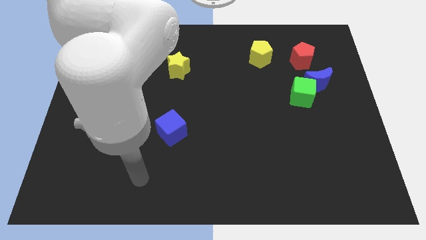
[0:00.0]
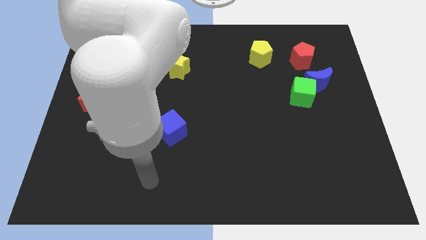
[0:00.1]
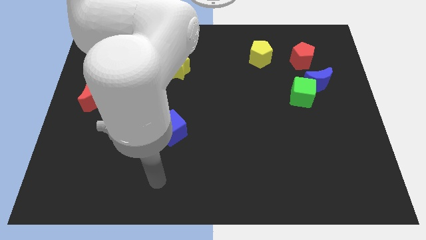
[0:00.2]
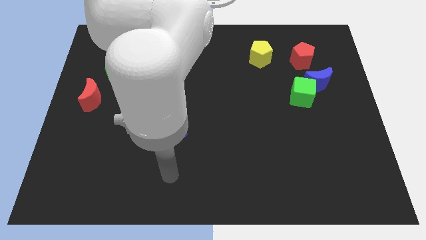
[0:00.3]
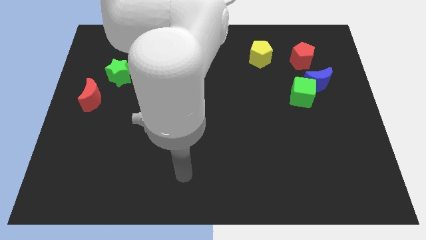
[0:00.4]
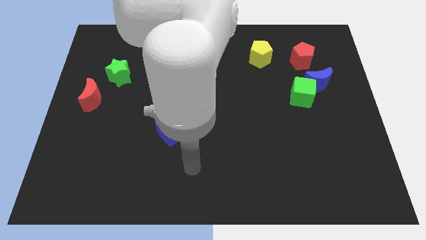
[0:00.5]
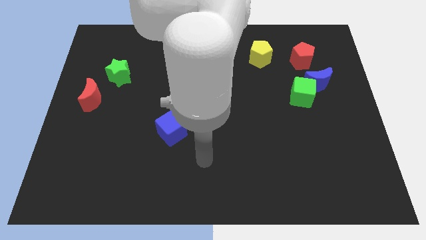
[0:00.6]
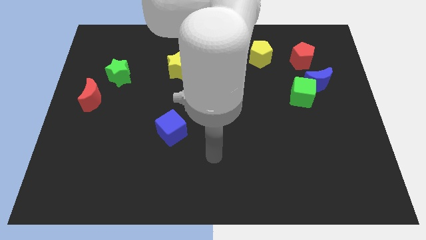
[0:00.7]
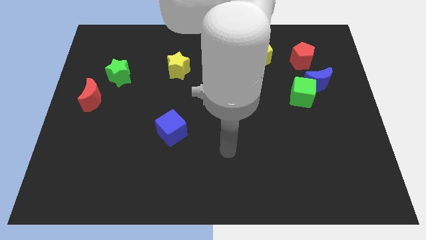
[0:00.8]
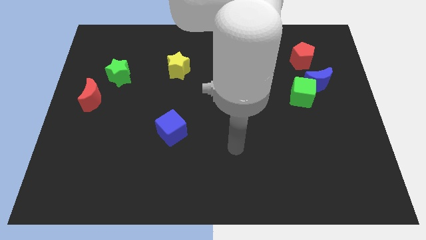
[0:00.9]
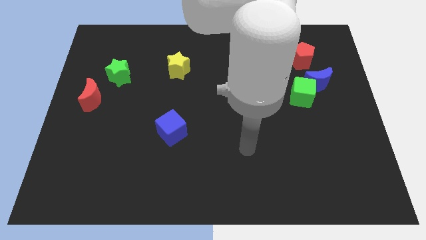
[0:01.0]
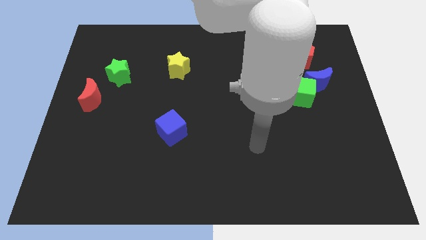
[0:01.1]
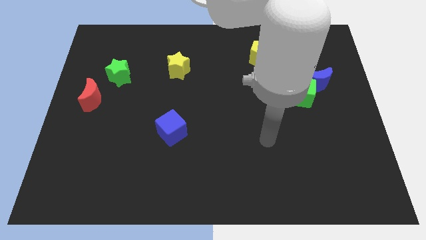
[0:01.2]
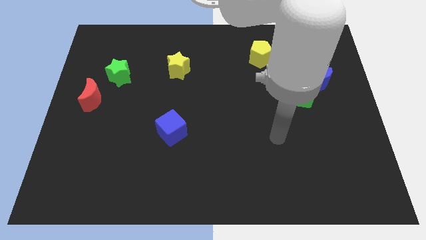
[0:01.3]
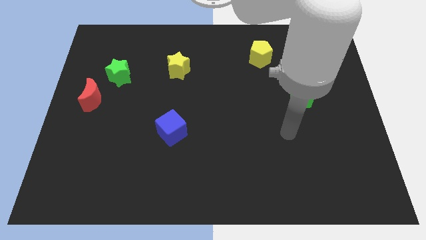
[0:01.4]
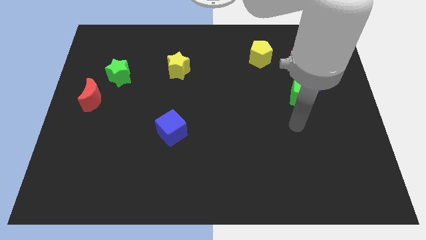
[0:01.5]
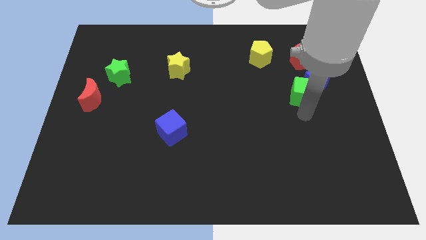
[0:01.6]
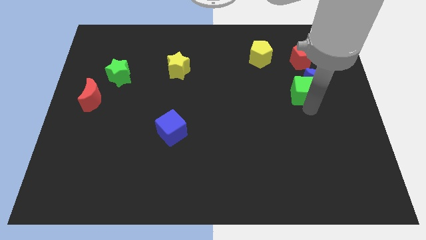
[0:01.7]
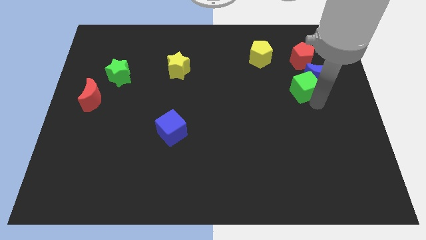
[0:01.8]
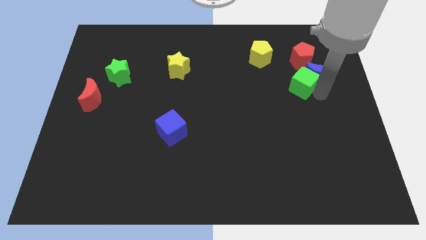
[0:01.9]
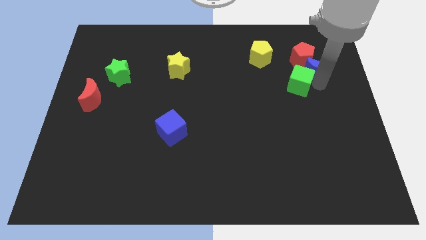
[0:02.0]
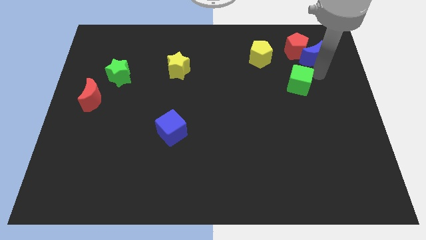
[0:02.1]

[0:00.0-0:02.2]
pull the green cube apart from the blue moon

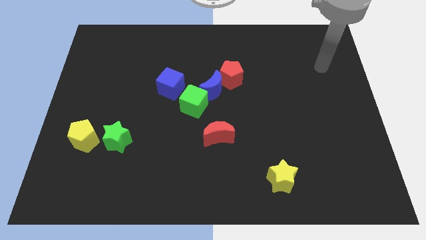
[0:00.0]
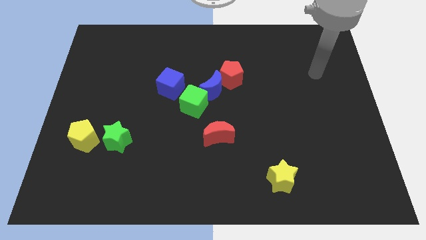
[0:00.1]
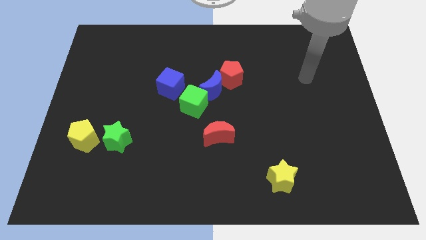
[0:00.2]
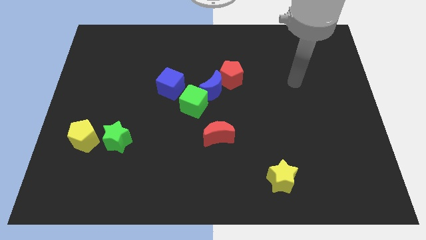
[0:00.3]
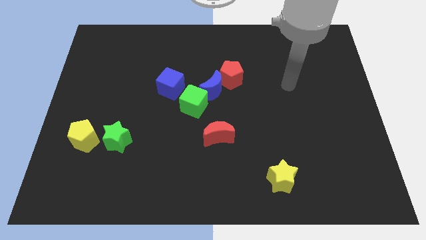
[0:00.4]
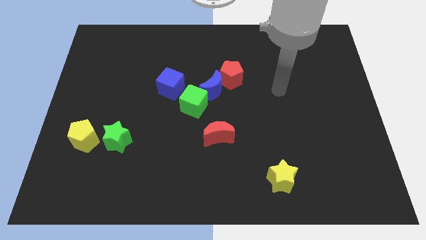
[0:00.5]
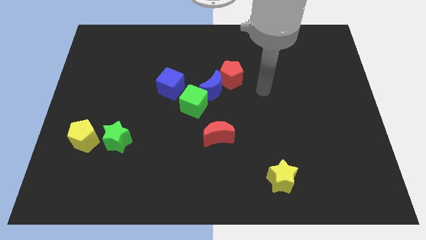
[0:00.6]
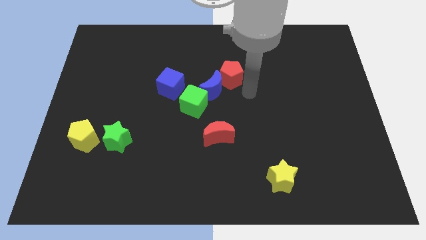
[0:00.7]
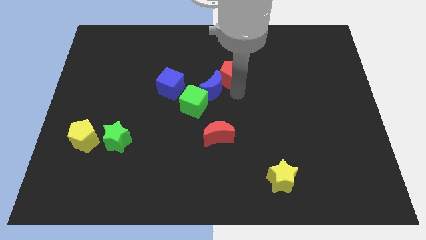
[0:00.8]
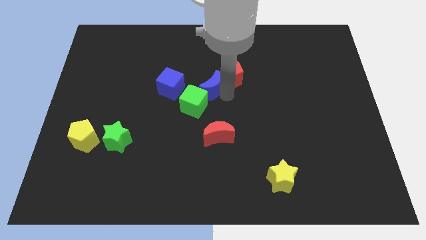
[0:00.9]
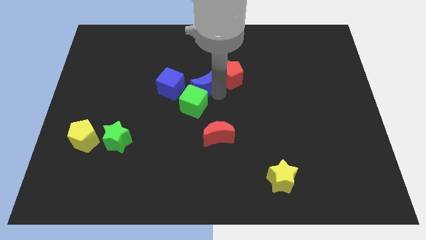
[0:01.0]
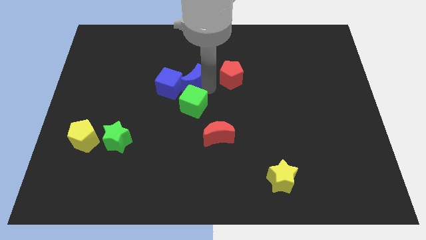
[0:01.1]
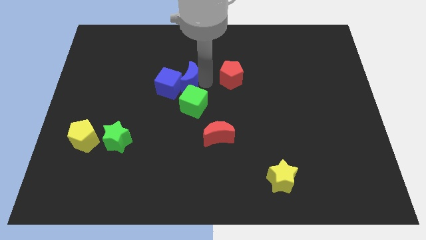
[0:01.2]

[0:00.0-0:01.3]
separate the red pentagon from the blue moon

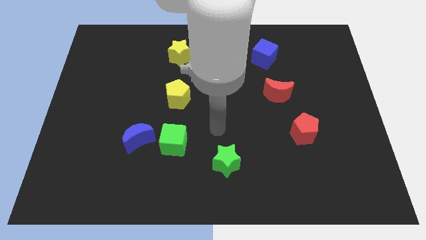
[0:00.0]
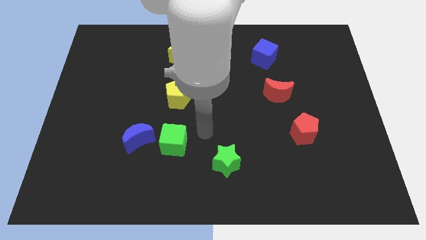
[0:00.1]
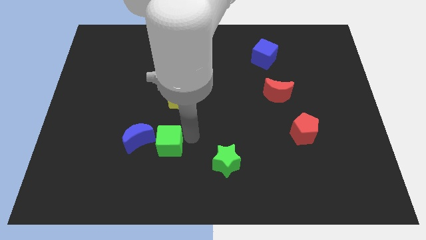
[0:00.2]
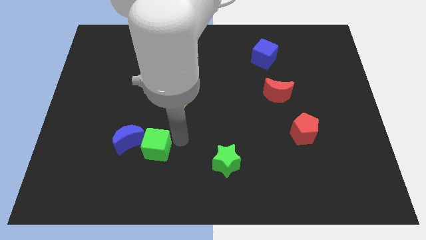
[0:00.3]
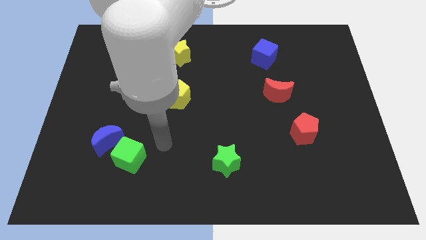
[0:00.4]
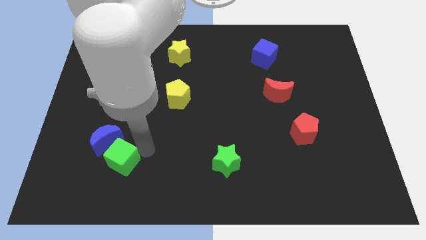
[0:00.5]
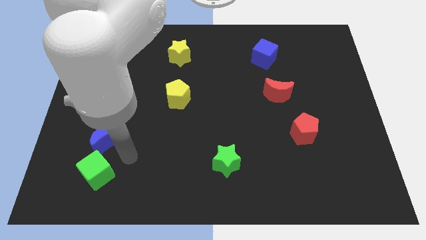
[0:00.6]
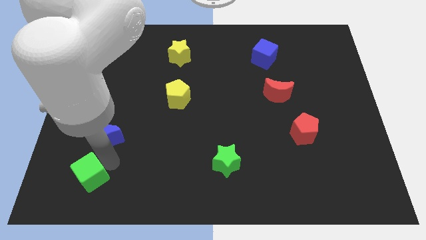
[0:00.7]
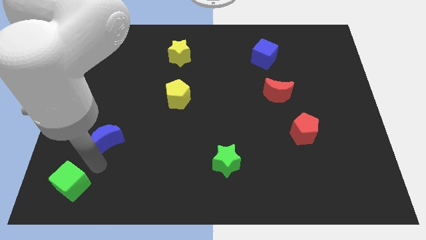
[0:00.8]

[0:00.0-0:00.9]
move the blue moon away from the green cube

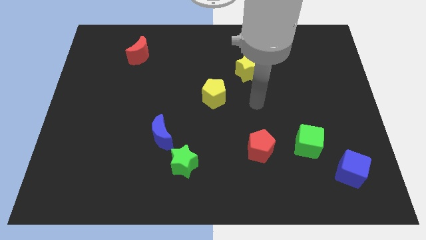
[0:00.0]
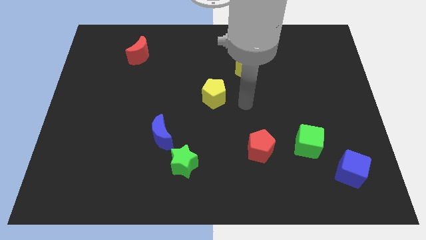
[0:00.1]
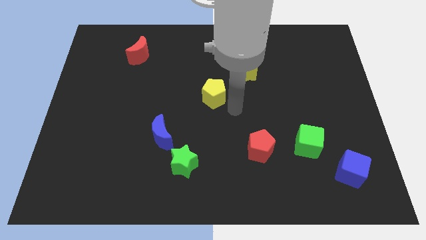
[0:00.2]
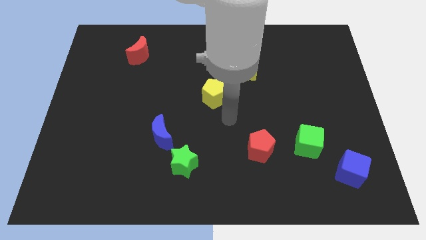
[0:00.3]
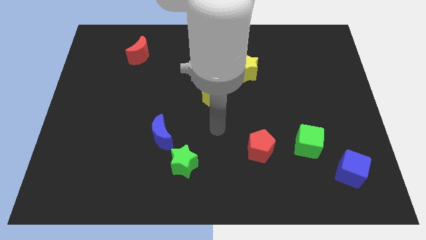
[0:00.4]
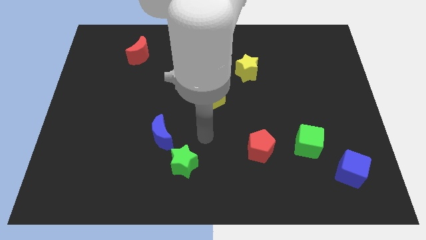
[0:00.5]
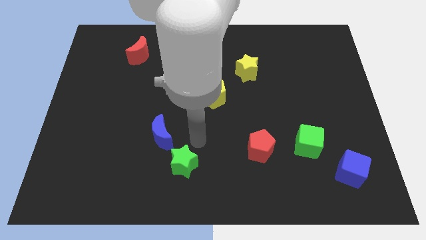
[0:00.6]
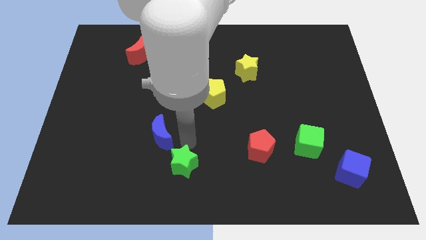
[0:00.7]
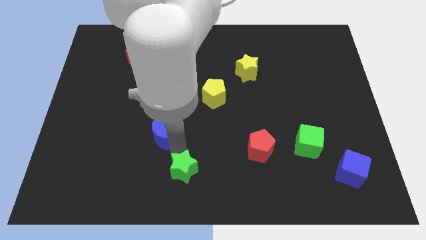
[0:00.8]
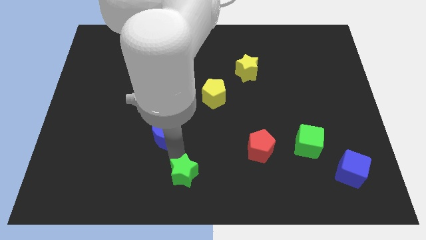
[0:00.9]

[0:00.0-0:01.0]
separate the blue moon from the green star

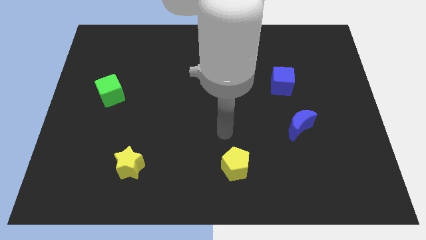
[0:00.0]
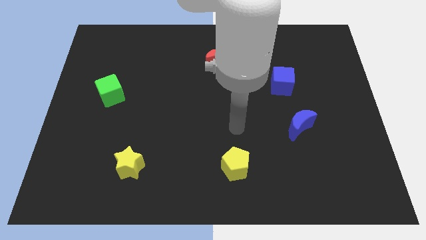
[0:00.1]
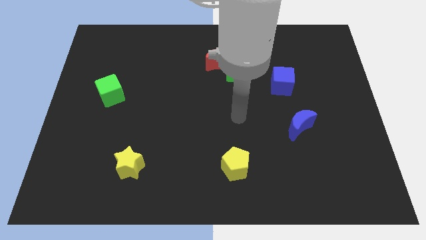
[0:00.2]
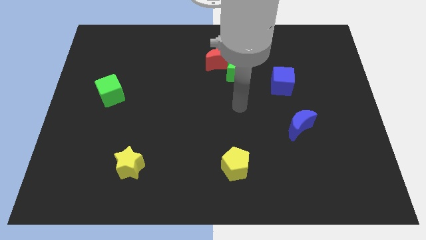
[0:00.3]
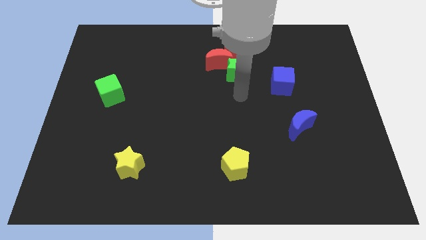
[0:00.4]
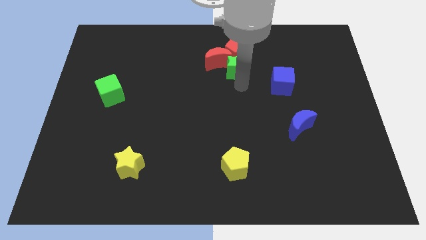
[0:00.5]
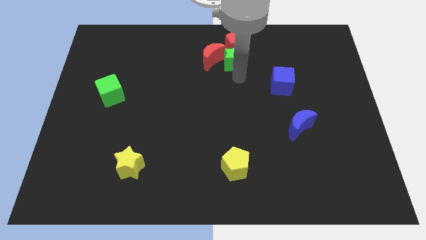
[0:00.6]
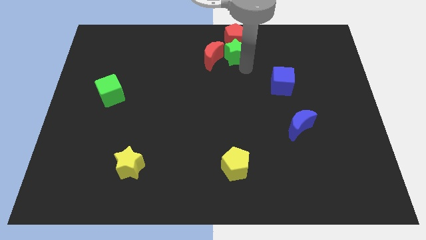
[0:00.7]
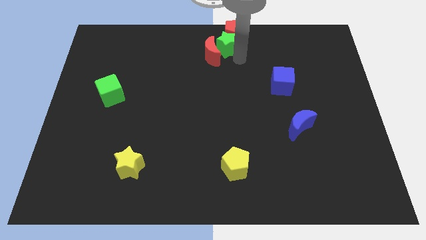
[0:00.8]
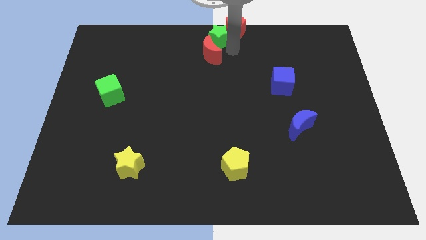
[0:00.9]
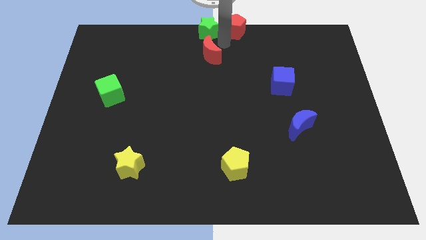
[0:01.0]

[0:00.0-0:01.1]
separate the red moon from the red pentagon and green star

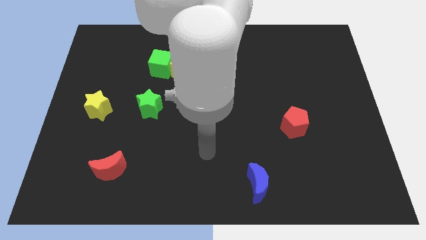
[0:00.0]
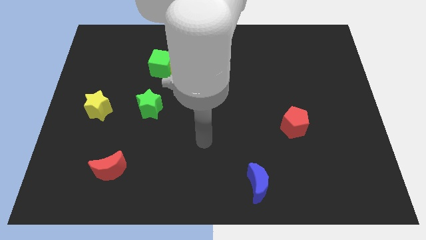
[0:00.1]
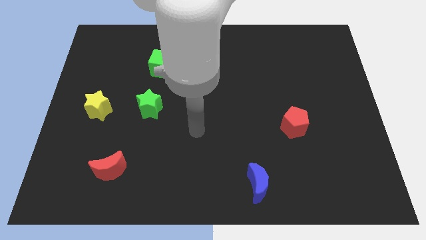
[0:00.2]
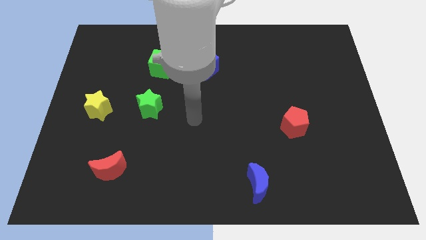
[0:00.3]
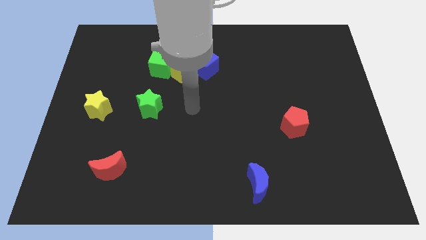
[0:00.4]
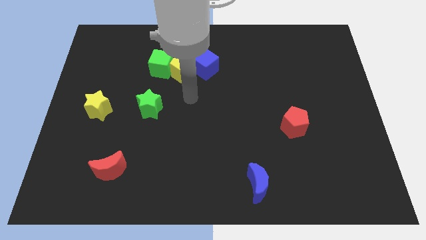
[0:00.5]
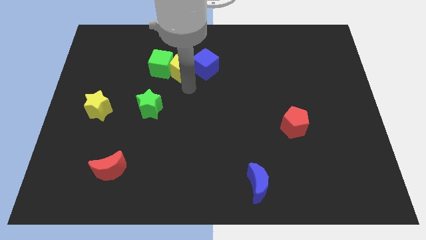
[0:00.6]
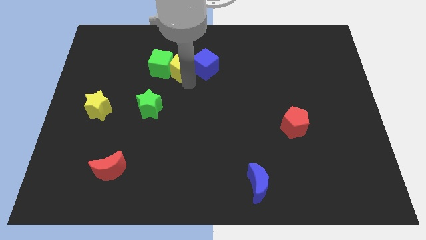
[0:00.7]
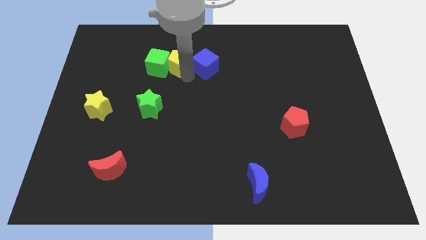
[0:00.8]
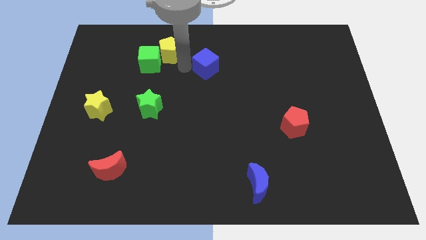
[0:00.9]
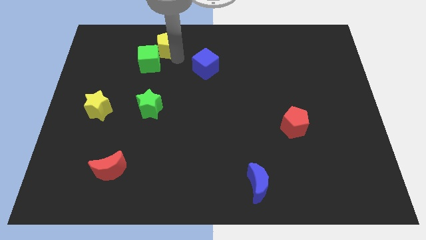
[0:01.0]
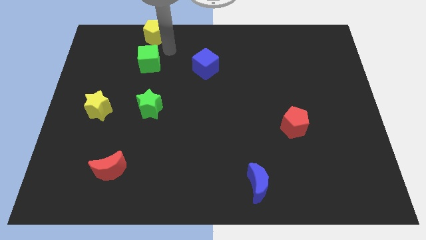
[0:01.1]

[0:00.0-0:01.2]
move the green cube away from the yellow pentagon

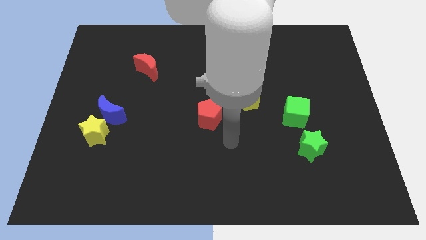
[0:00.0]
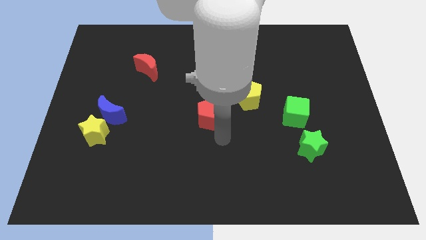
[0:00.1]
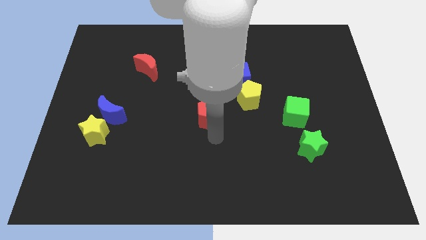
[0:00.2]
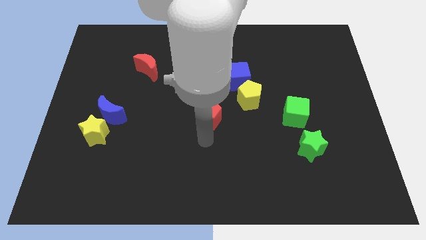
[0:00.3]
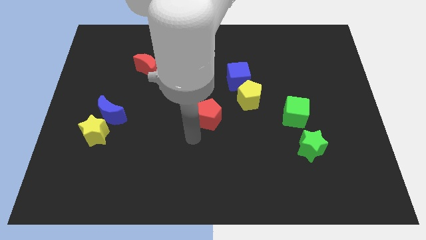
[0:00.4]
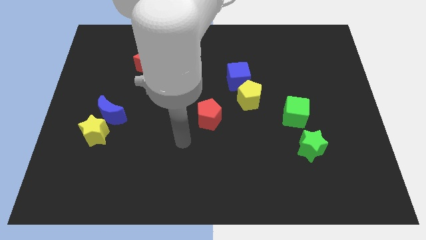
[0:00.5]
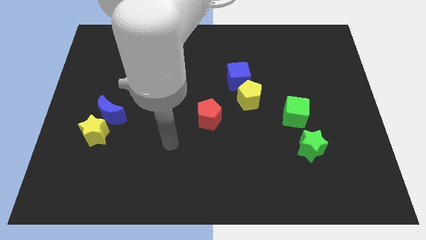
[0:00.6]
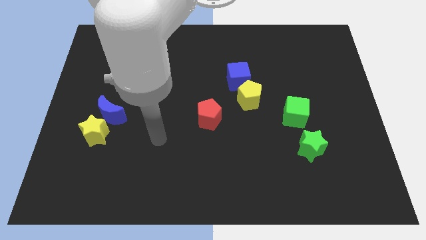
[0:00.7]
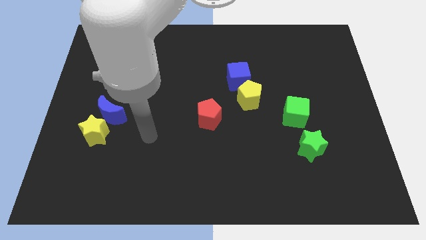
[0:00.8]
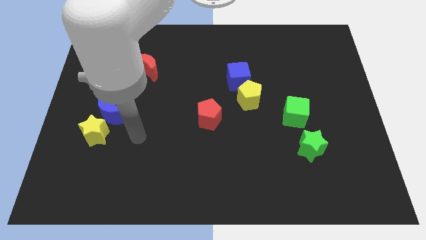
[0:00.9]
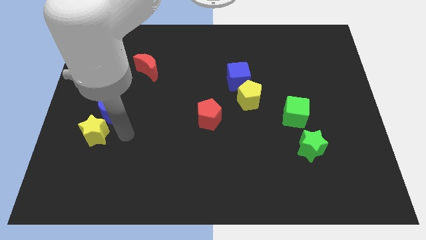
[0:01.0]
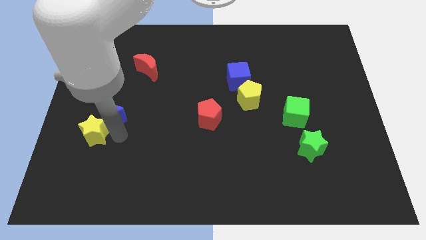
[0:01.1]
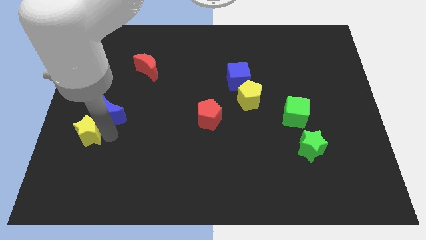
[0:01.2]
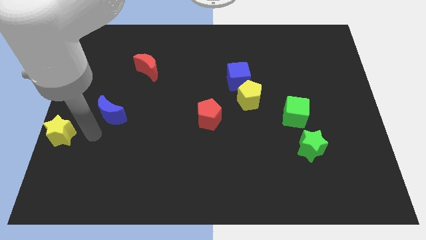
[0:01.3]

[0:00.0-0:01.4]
pull the blue moon apart from the yellow star
